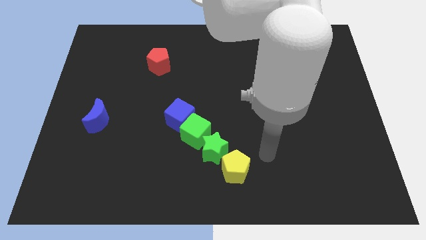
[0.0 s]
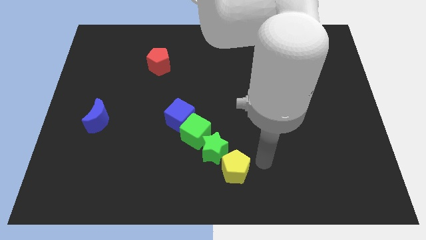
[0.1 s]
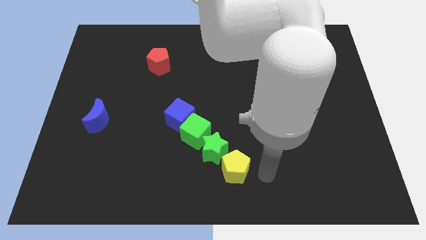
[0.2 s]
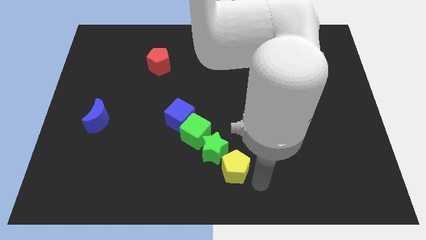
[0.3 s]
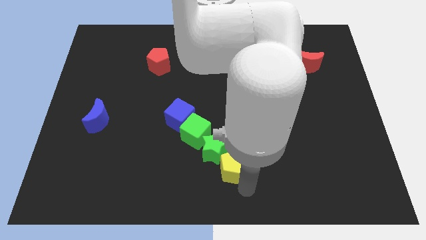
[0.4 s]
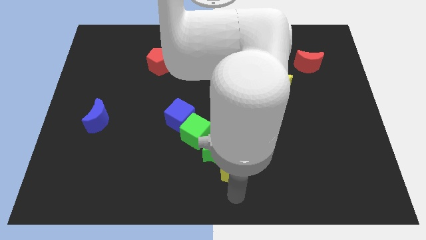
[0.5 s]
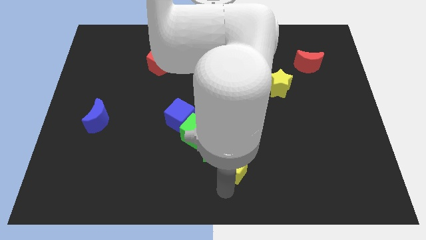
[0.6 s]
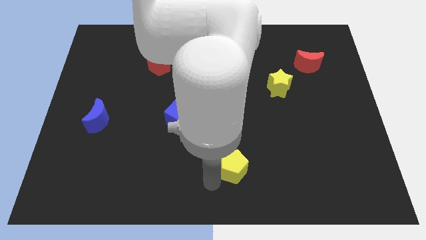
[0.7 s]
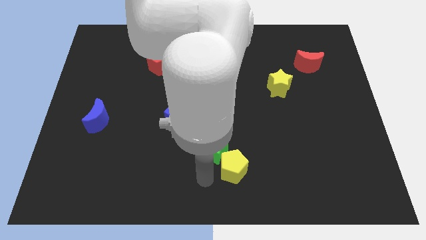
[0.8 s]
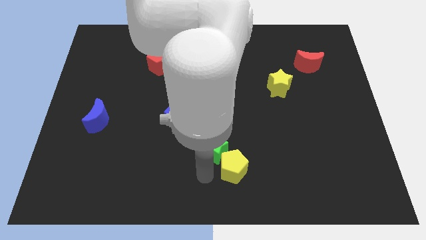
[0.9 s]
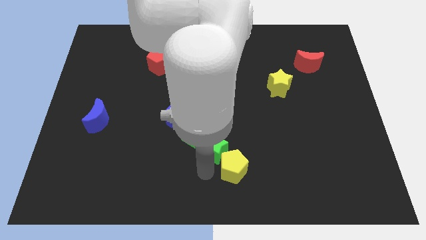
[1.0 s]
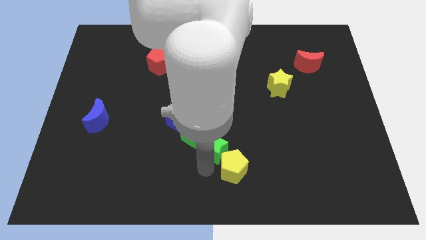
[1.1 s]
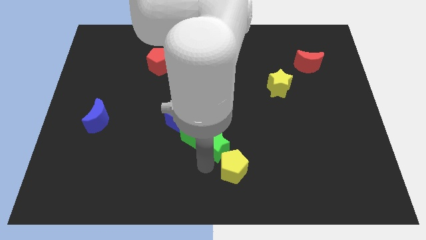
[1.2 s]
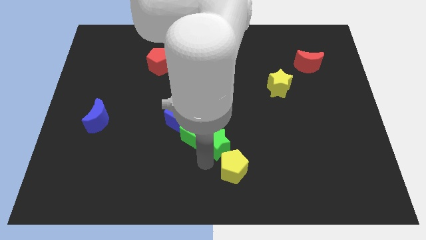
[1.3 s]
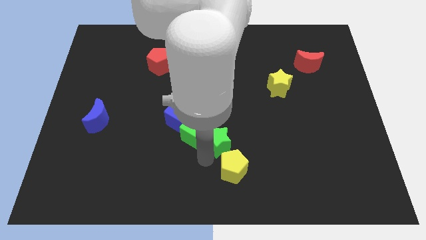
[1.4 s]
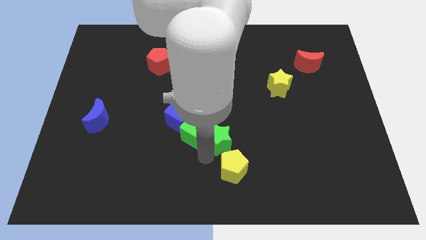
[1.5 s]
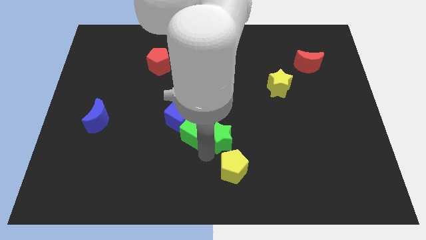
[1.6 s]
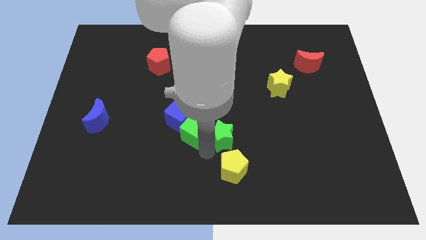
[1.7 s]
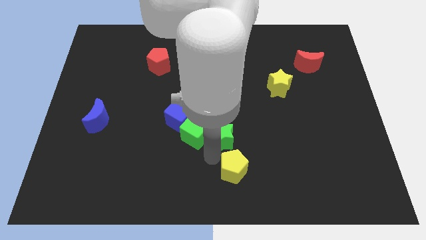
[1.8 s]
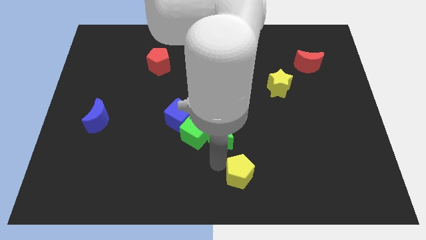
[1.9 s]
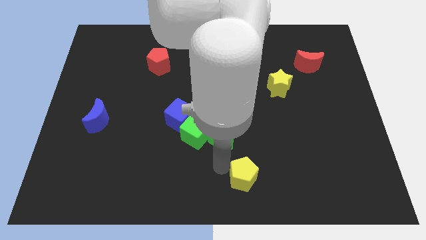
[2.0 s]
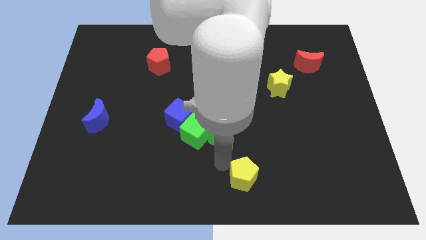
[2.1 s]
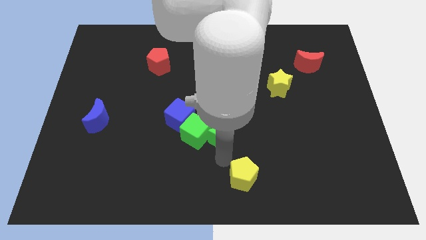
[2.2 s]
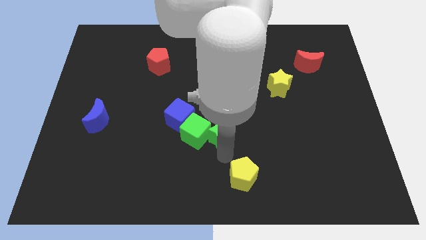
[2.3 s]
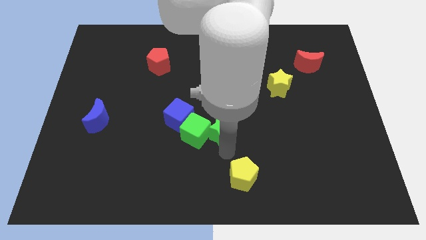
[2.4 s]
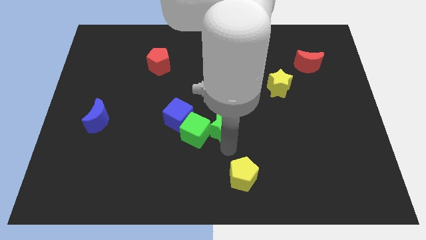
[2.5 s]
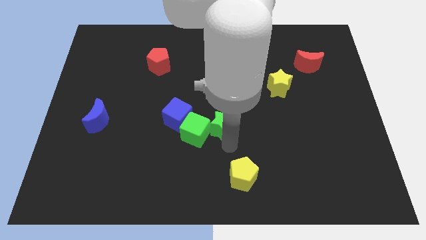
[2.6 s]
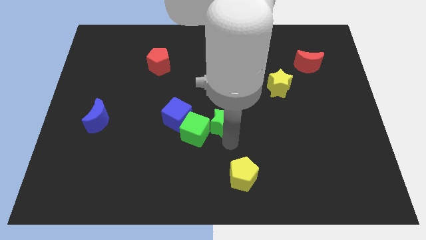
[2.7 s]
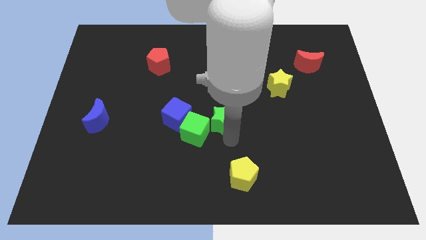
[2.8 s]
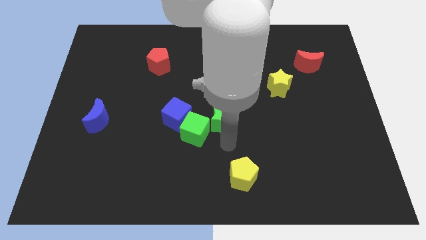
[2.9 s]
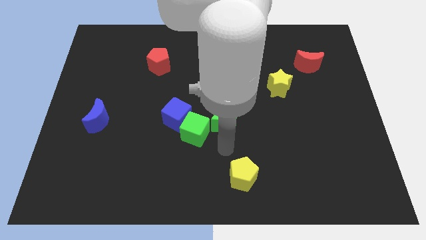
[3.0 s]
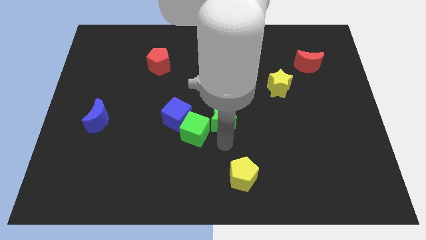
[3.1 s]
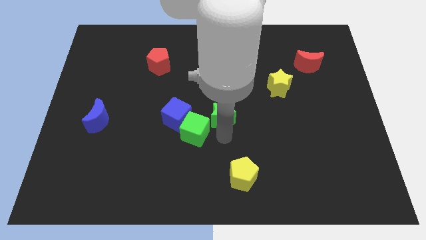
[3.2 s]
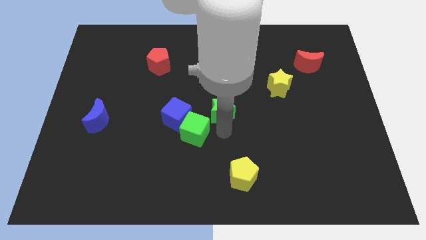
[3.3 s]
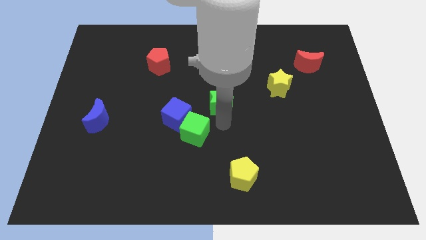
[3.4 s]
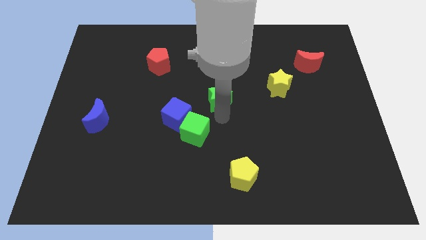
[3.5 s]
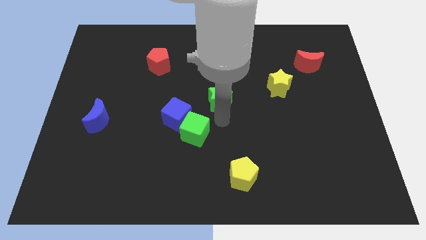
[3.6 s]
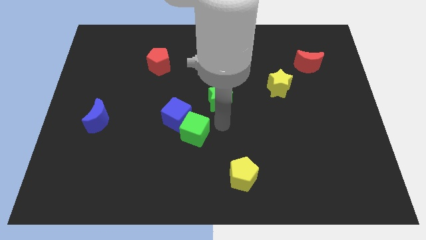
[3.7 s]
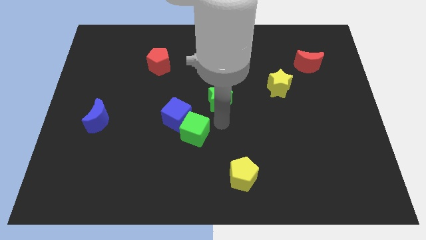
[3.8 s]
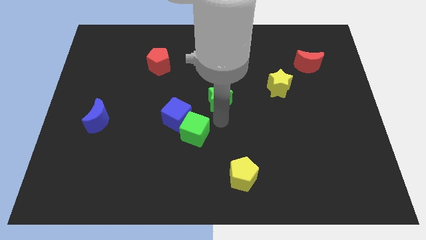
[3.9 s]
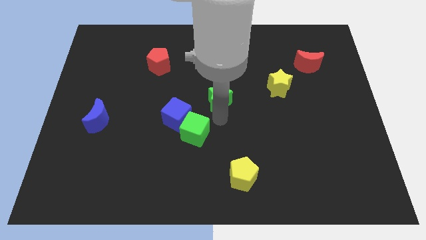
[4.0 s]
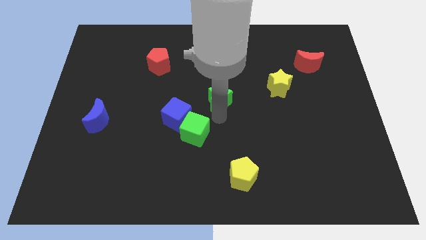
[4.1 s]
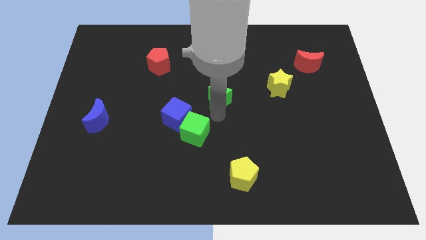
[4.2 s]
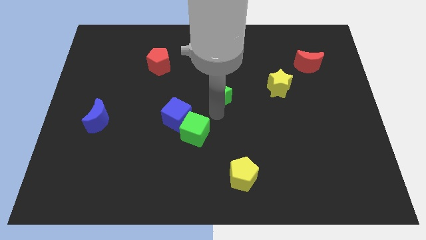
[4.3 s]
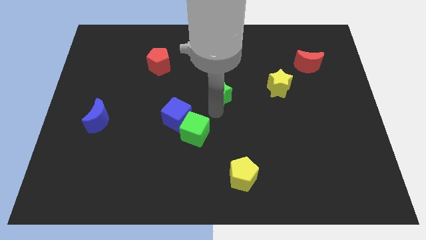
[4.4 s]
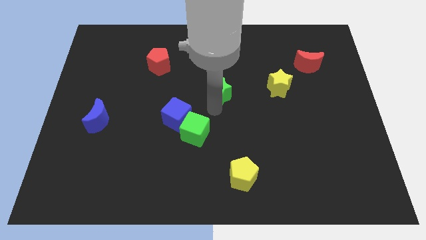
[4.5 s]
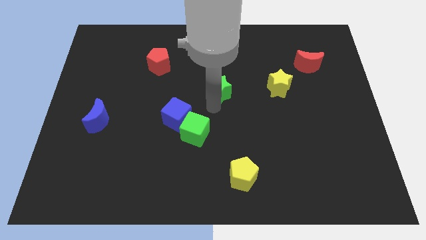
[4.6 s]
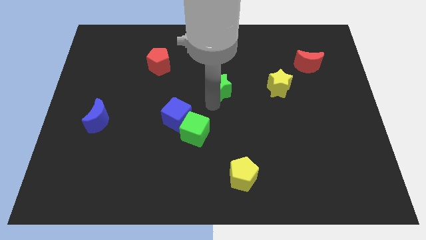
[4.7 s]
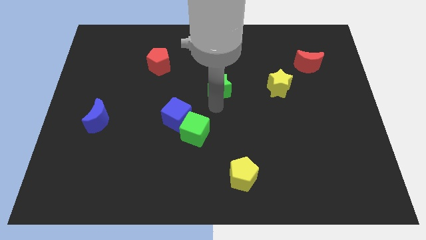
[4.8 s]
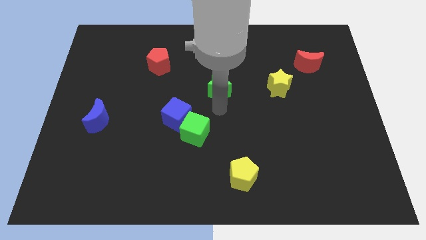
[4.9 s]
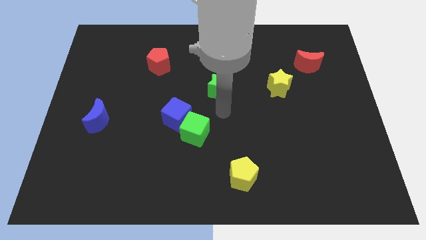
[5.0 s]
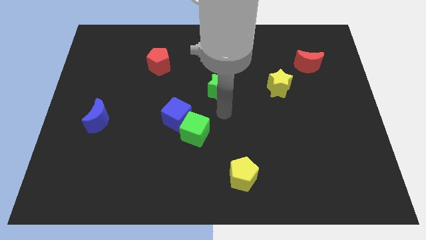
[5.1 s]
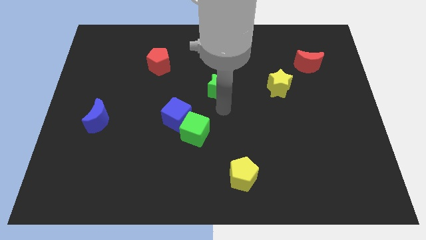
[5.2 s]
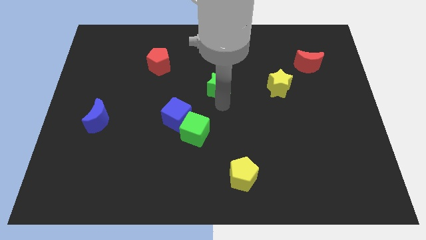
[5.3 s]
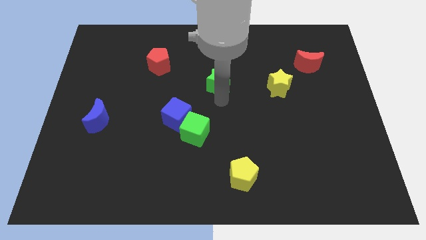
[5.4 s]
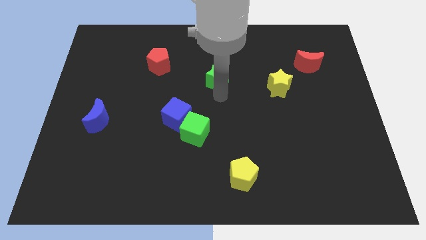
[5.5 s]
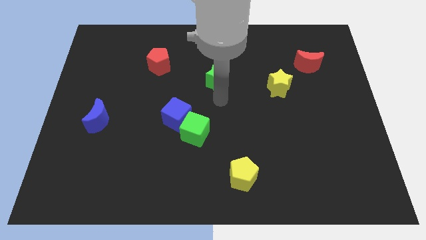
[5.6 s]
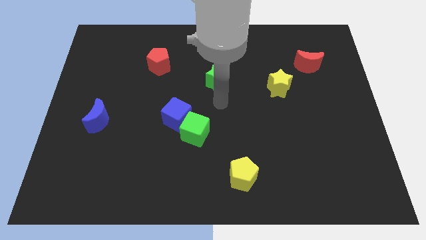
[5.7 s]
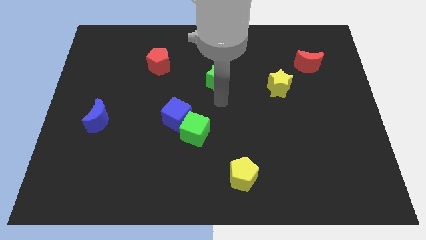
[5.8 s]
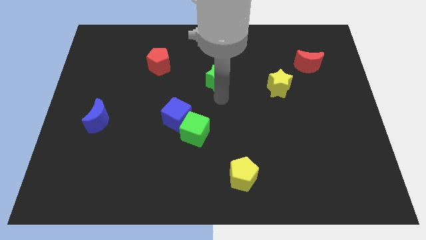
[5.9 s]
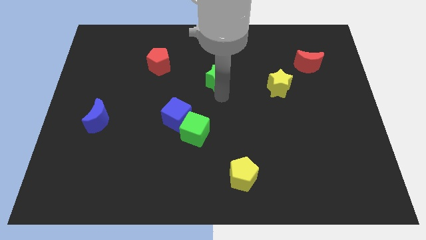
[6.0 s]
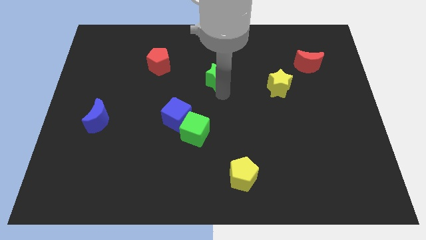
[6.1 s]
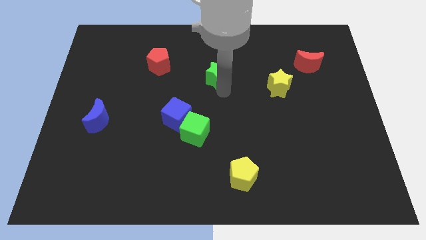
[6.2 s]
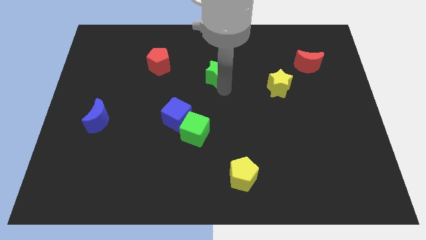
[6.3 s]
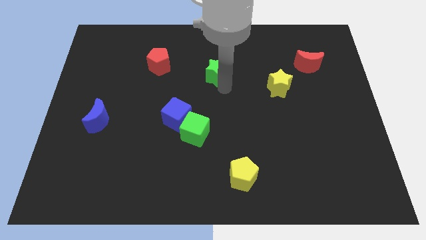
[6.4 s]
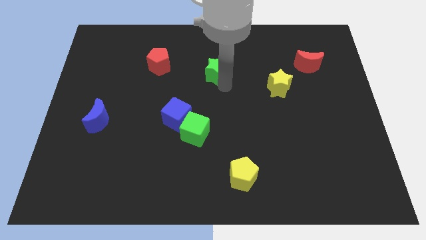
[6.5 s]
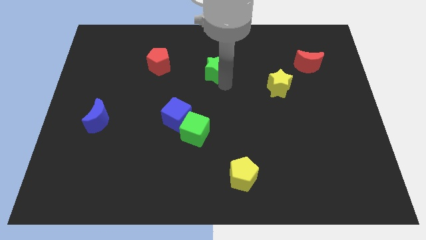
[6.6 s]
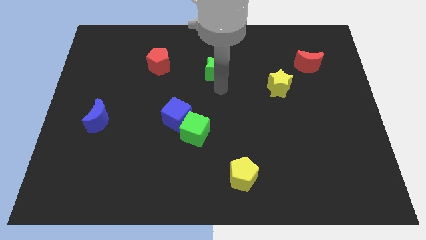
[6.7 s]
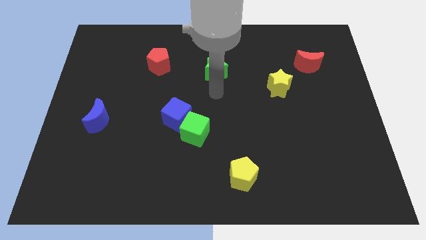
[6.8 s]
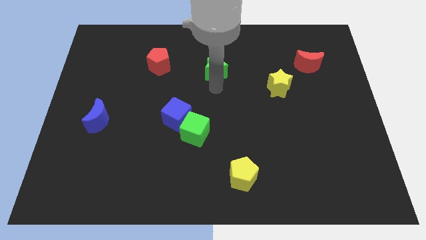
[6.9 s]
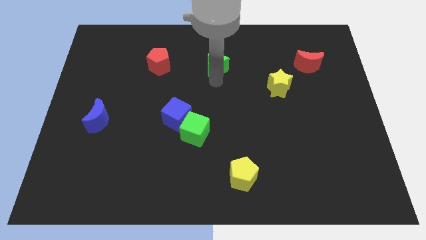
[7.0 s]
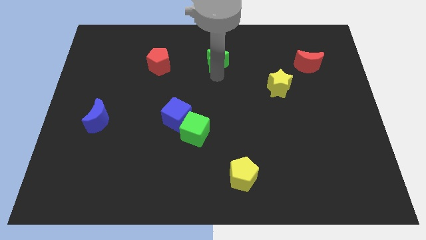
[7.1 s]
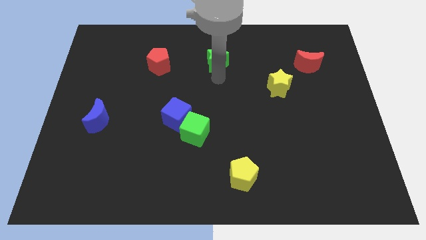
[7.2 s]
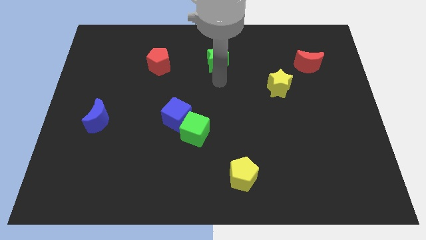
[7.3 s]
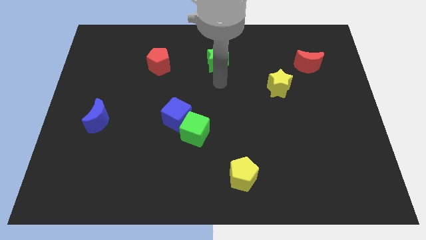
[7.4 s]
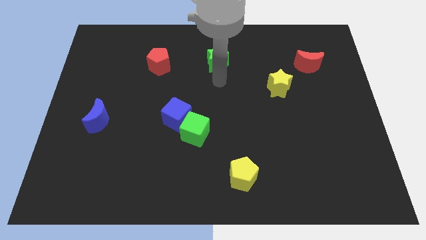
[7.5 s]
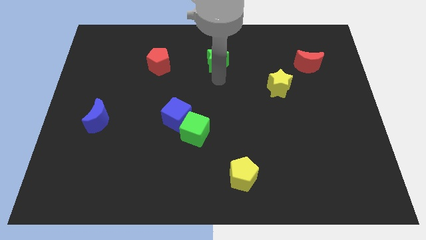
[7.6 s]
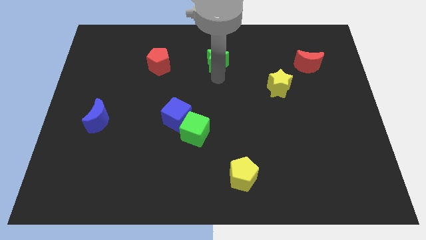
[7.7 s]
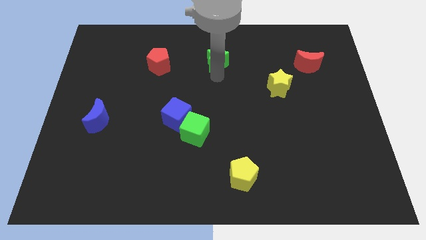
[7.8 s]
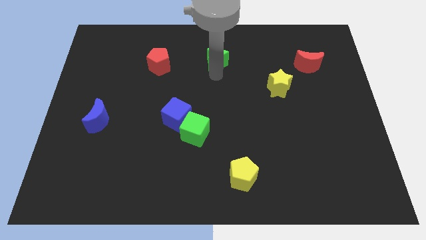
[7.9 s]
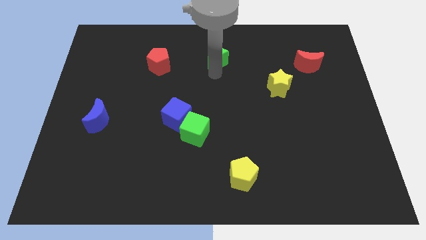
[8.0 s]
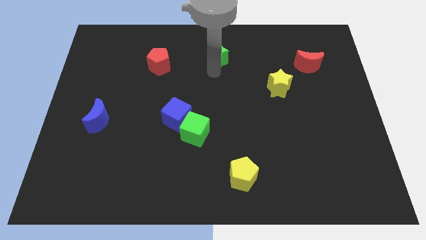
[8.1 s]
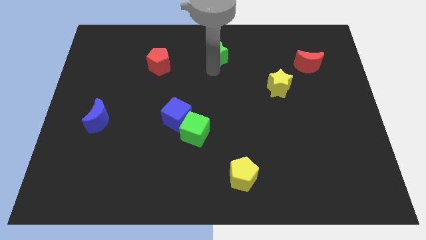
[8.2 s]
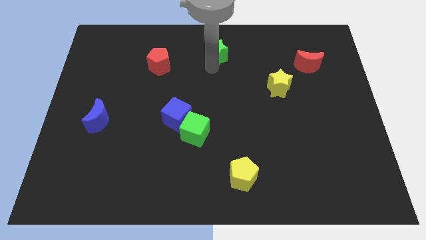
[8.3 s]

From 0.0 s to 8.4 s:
move the green star to the top side
